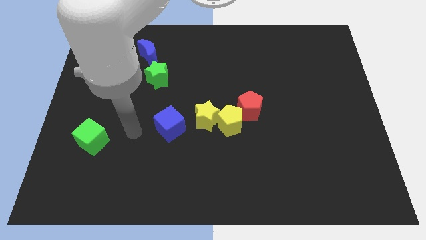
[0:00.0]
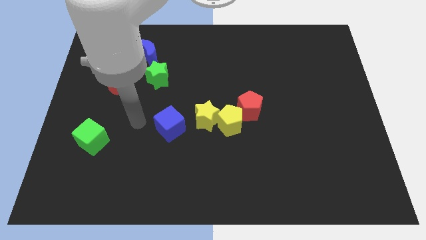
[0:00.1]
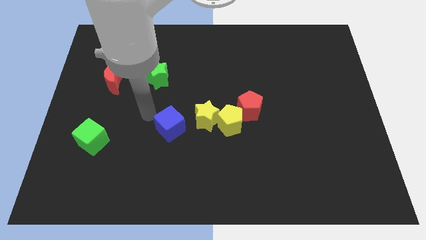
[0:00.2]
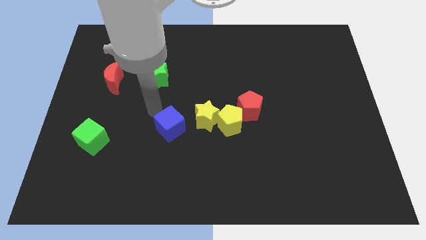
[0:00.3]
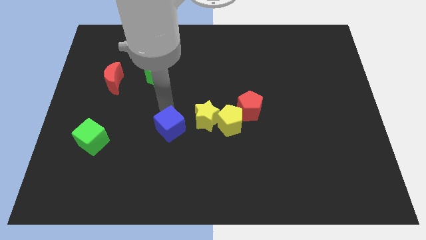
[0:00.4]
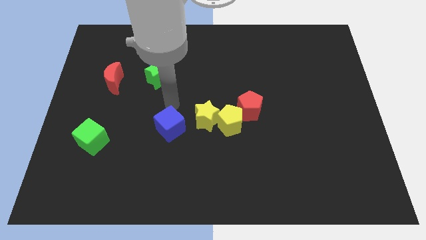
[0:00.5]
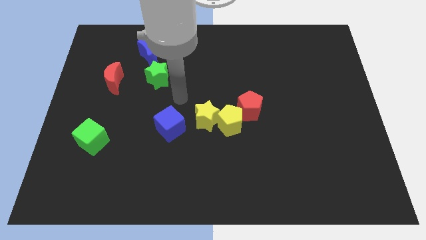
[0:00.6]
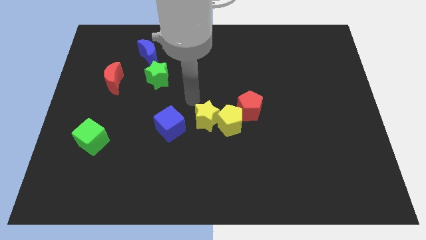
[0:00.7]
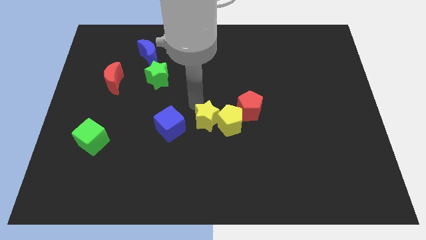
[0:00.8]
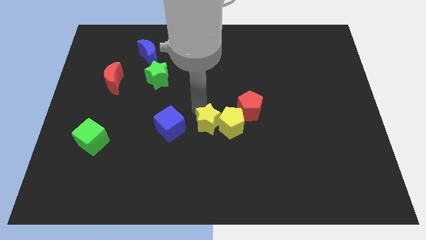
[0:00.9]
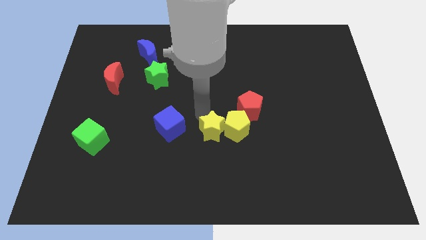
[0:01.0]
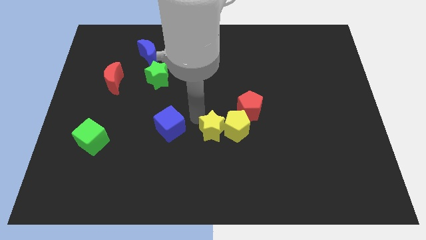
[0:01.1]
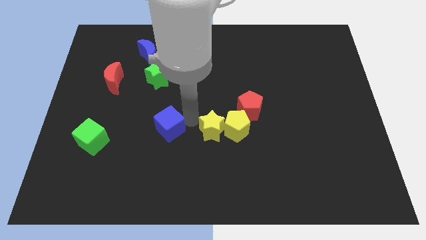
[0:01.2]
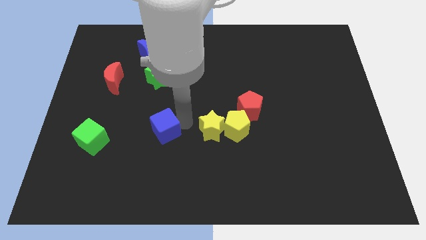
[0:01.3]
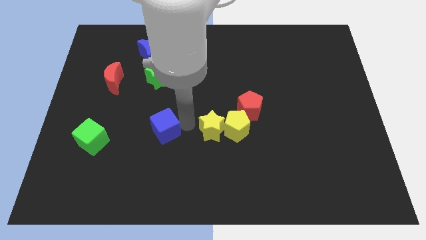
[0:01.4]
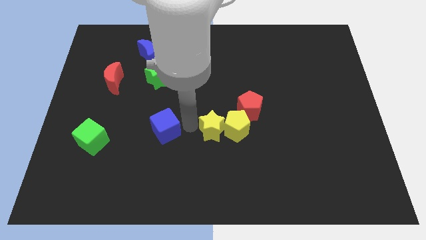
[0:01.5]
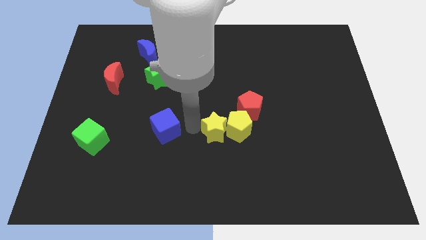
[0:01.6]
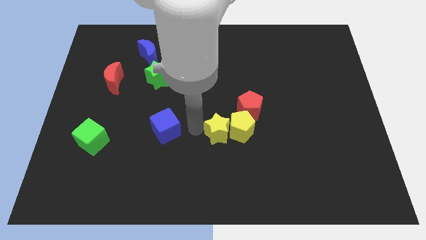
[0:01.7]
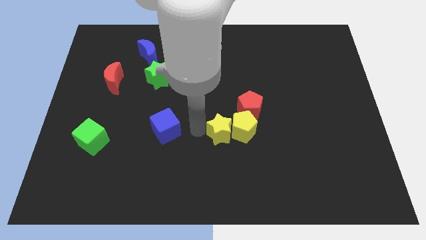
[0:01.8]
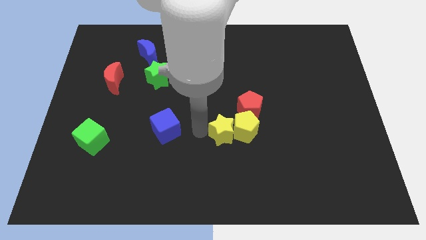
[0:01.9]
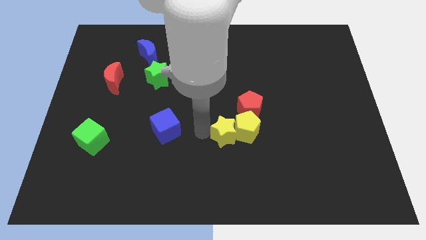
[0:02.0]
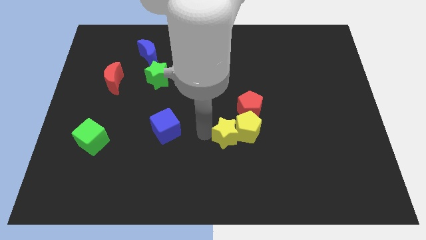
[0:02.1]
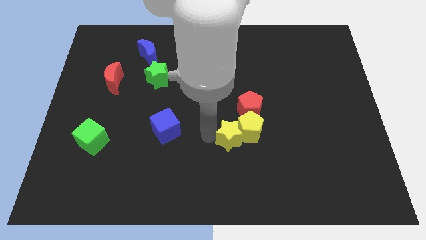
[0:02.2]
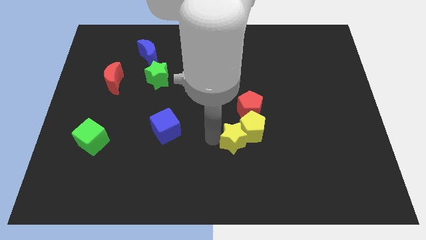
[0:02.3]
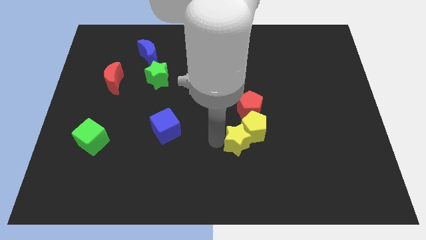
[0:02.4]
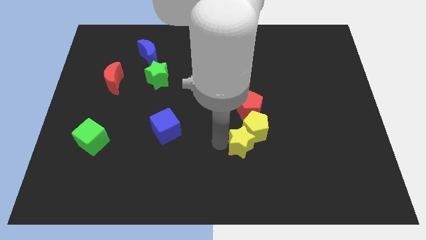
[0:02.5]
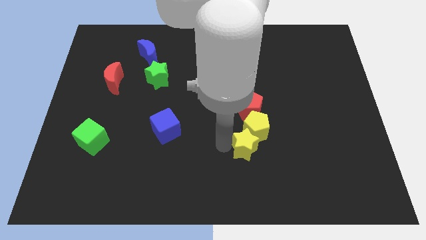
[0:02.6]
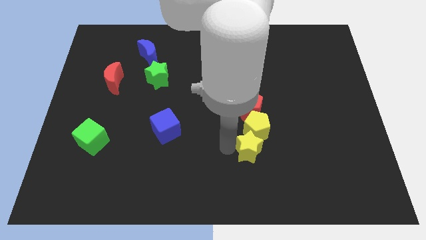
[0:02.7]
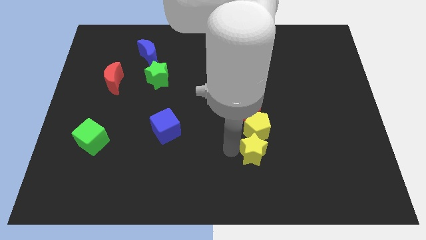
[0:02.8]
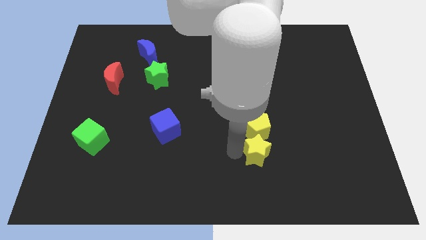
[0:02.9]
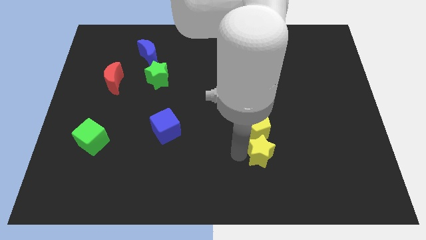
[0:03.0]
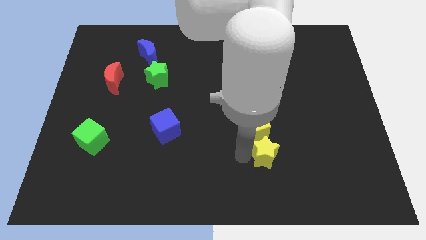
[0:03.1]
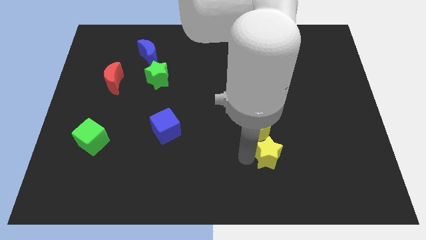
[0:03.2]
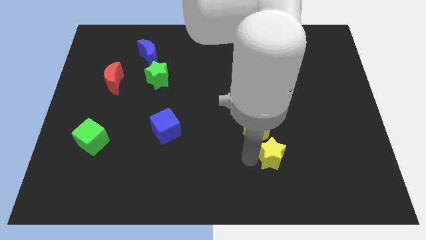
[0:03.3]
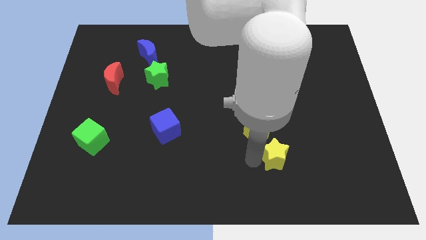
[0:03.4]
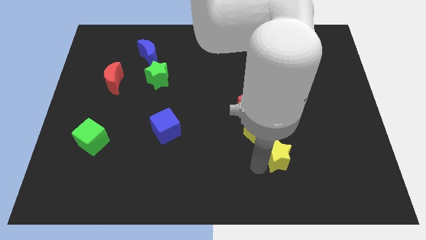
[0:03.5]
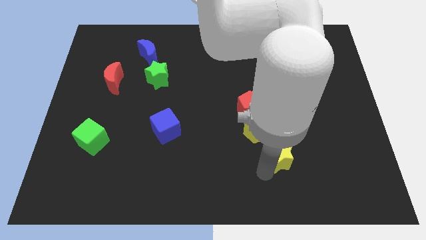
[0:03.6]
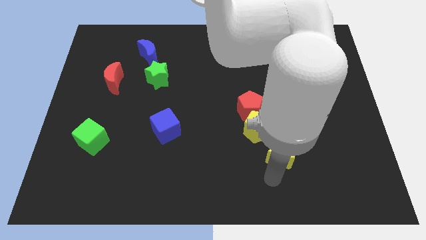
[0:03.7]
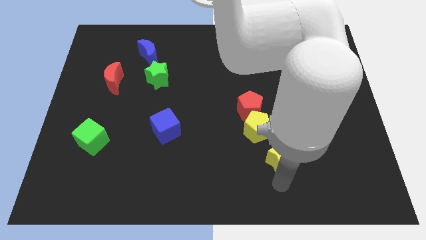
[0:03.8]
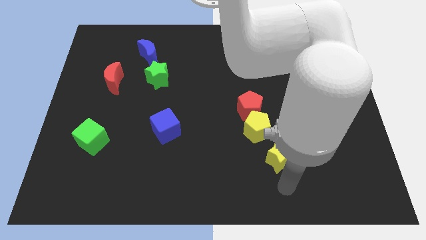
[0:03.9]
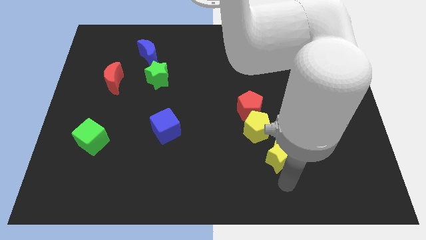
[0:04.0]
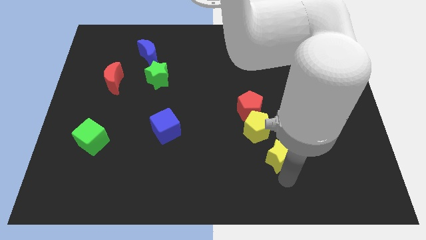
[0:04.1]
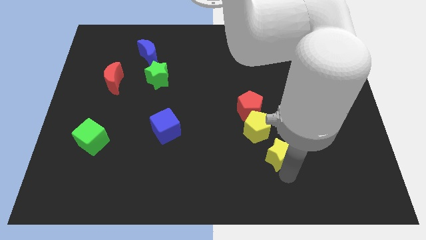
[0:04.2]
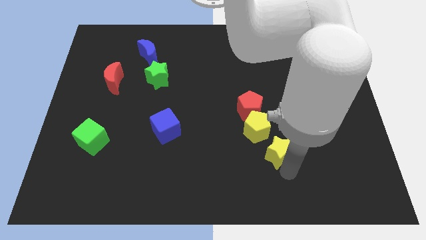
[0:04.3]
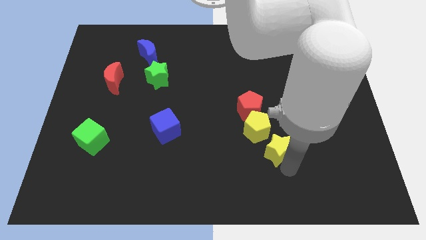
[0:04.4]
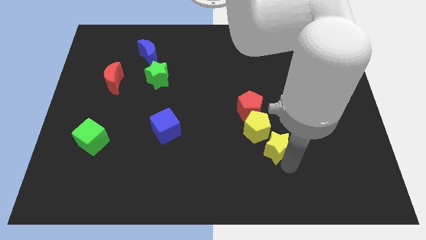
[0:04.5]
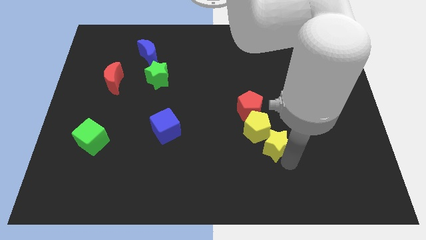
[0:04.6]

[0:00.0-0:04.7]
put the yellow star diagonally down and to the right of the red pentagon

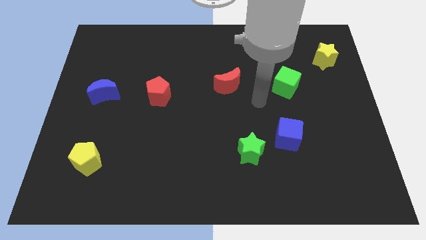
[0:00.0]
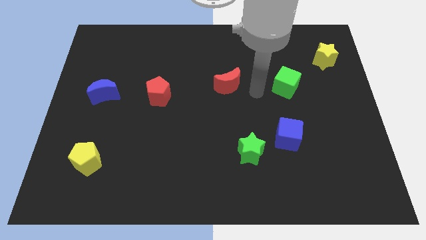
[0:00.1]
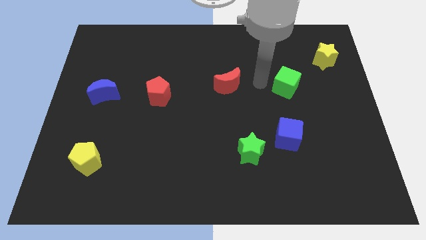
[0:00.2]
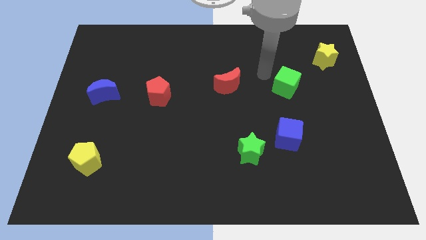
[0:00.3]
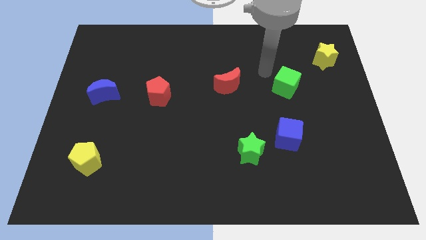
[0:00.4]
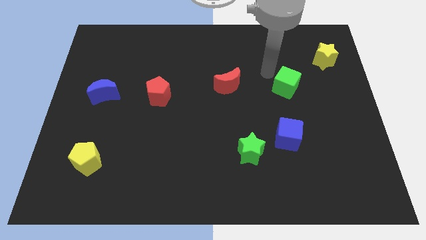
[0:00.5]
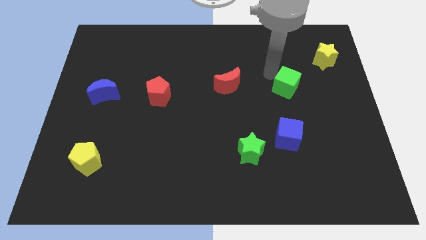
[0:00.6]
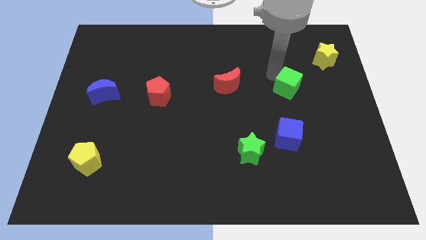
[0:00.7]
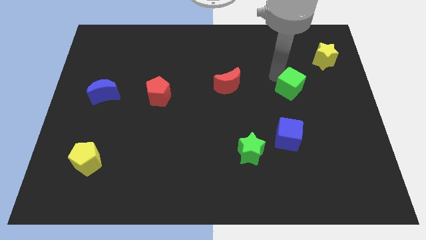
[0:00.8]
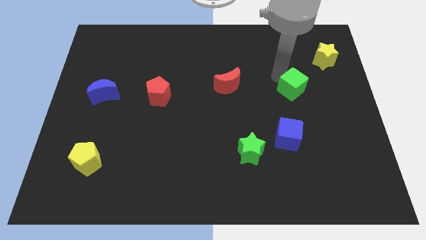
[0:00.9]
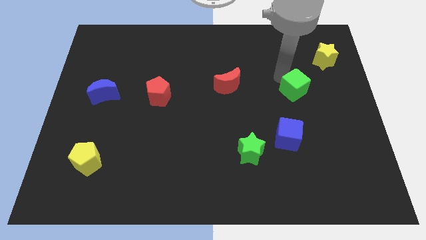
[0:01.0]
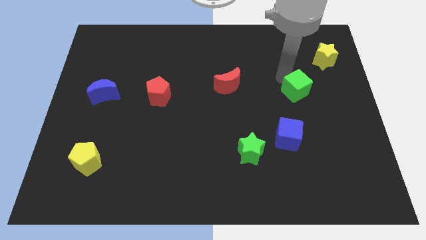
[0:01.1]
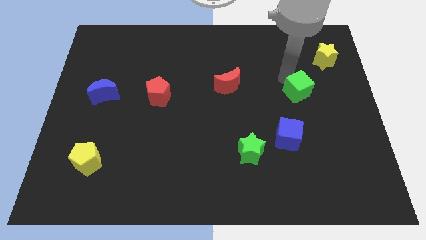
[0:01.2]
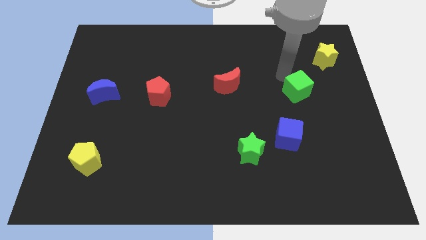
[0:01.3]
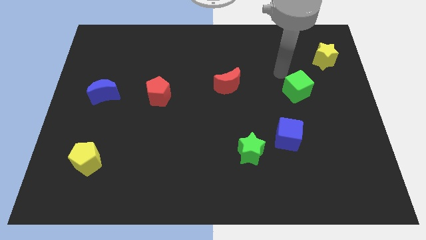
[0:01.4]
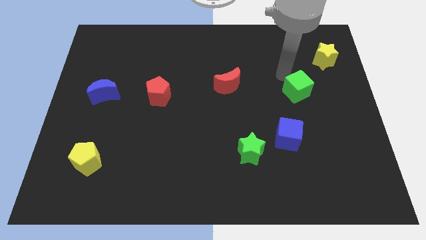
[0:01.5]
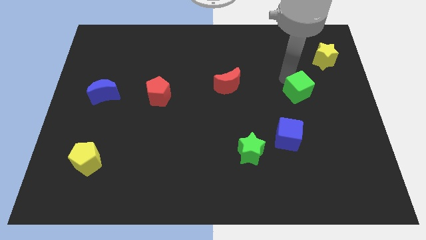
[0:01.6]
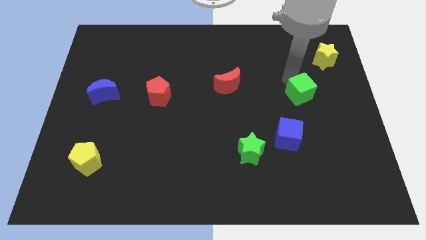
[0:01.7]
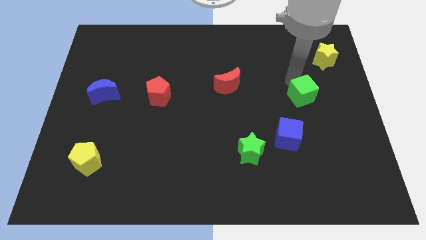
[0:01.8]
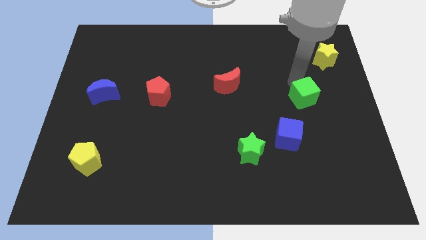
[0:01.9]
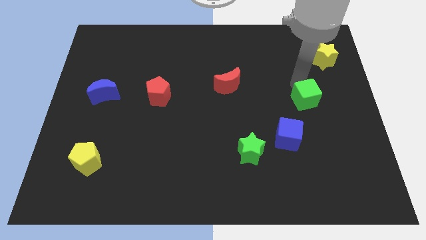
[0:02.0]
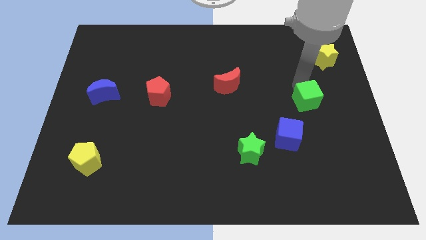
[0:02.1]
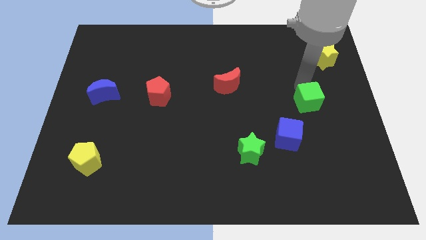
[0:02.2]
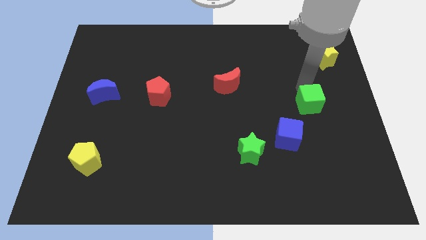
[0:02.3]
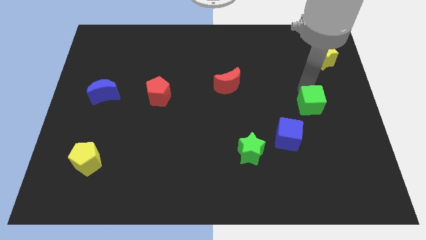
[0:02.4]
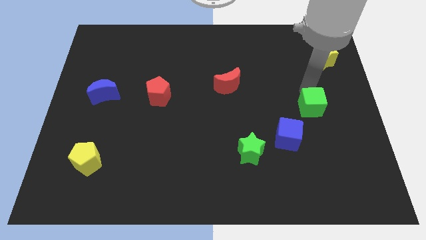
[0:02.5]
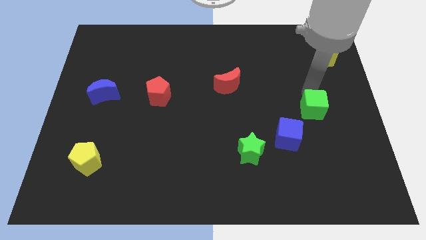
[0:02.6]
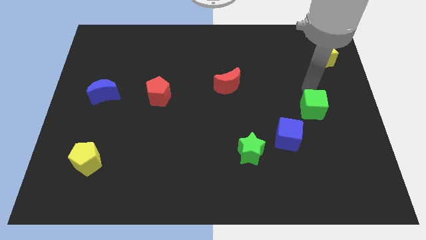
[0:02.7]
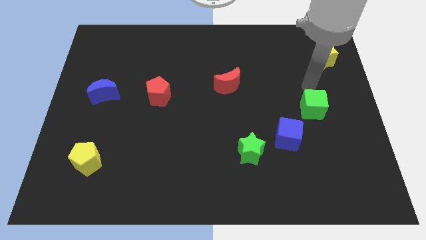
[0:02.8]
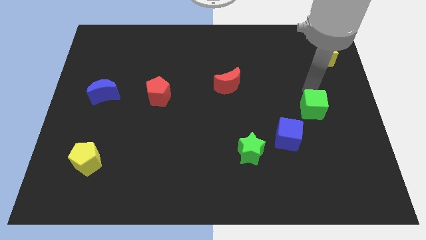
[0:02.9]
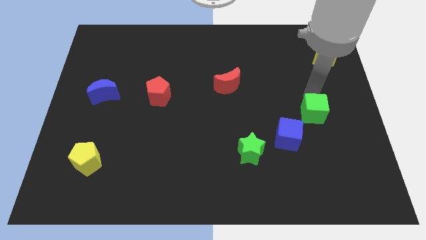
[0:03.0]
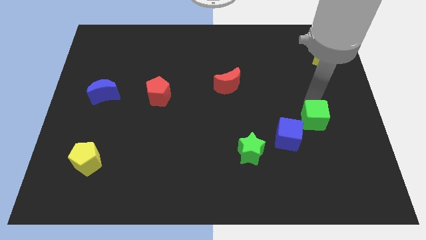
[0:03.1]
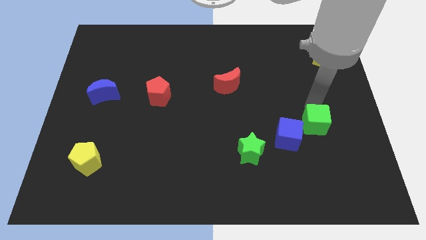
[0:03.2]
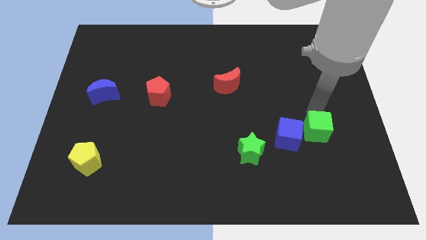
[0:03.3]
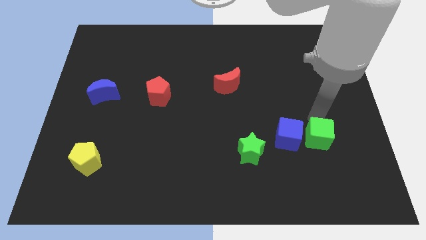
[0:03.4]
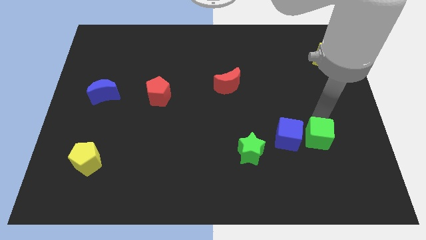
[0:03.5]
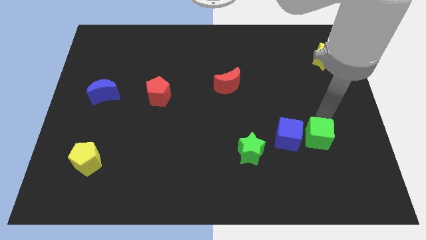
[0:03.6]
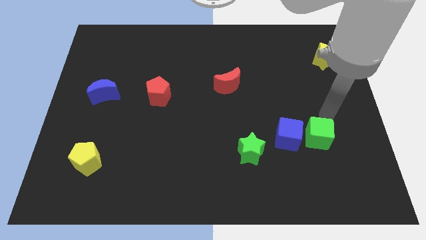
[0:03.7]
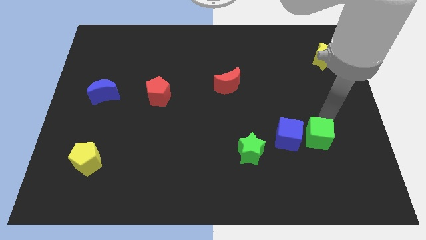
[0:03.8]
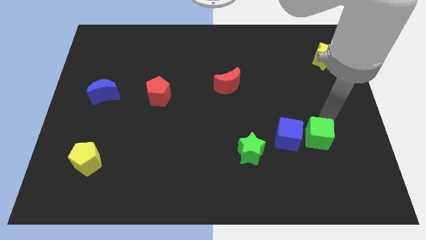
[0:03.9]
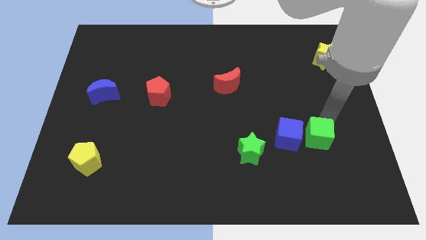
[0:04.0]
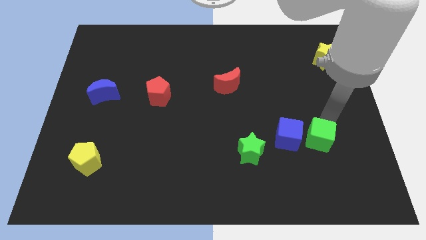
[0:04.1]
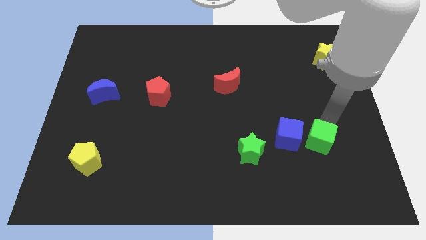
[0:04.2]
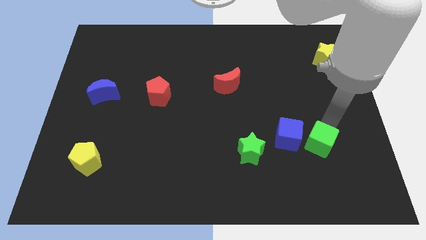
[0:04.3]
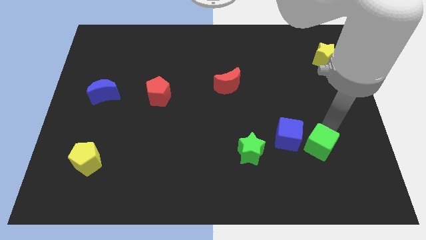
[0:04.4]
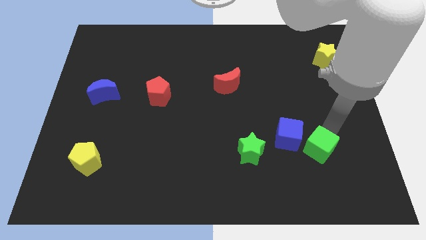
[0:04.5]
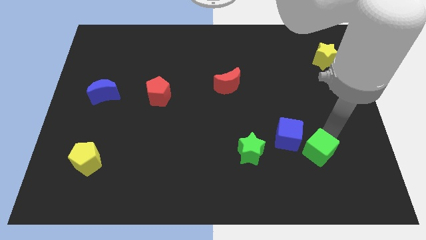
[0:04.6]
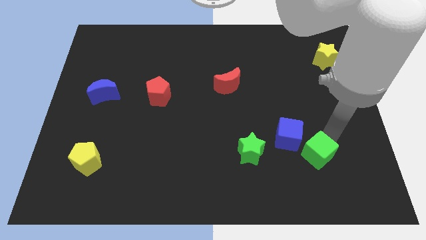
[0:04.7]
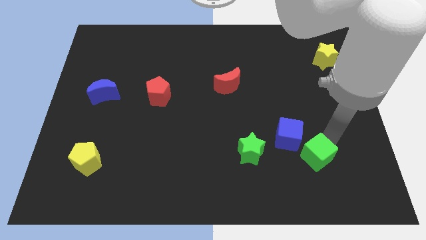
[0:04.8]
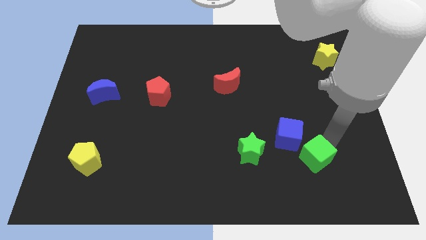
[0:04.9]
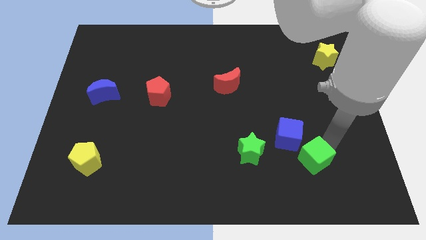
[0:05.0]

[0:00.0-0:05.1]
put the green cube to the bottom of the blue cube
